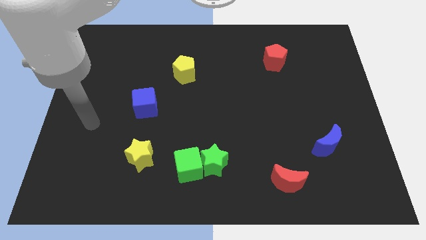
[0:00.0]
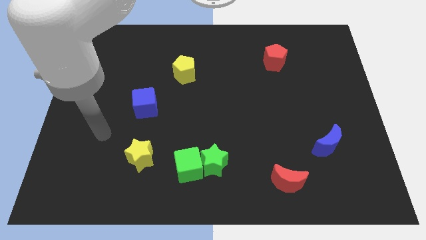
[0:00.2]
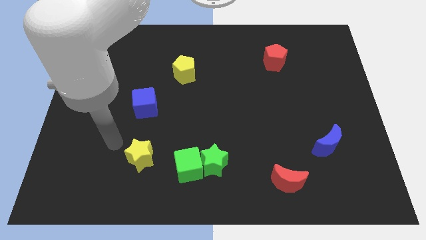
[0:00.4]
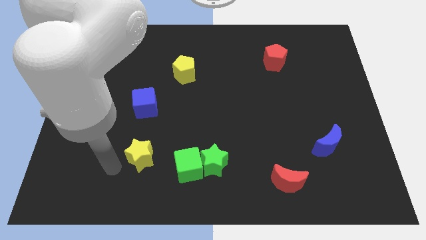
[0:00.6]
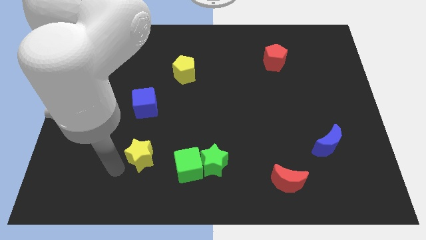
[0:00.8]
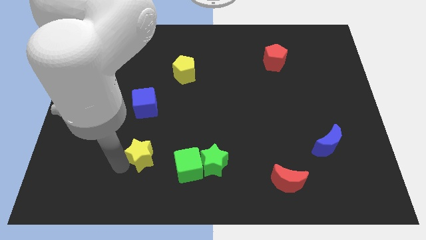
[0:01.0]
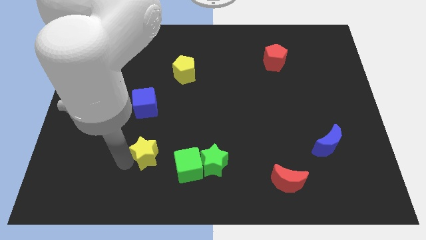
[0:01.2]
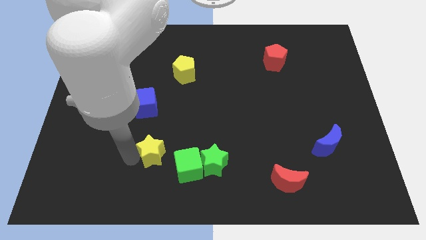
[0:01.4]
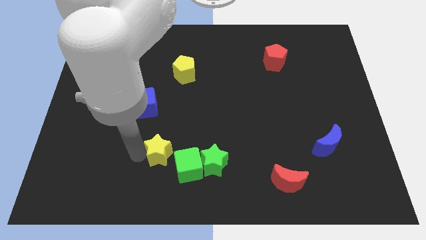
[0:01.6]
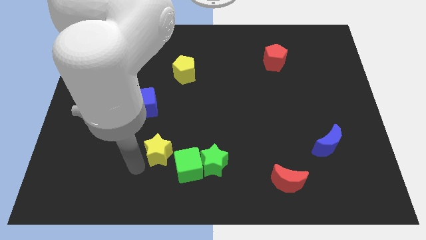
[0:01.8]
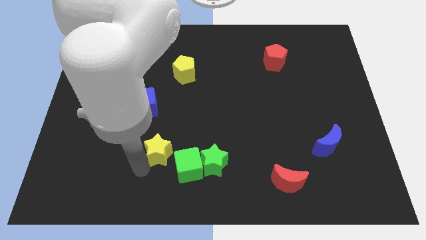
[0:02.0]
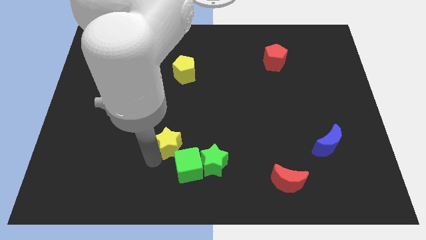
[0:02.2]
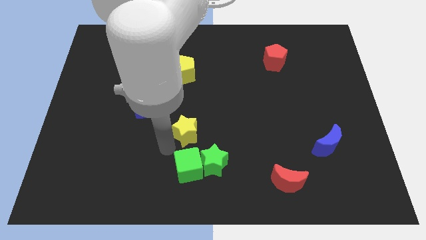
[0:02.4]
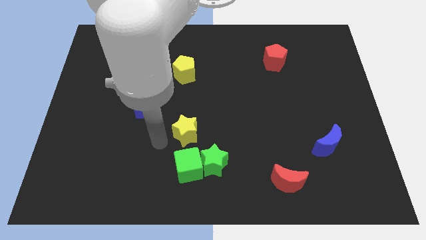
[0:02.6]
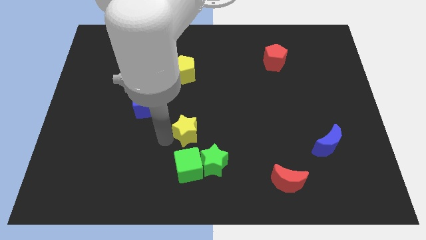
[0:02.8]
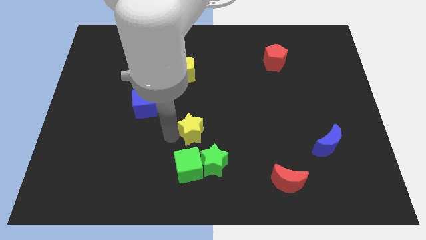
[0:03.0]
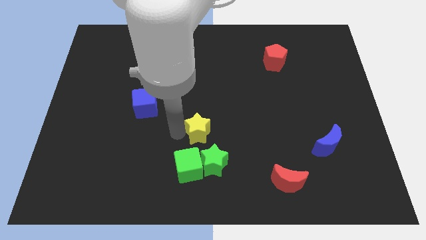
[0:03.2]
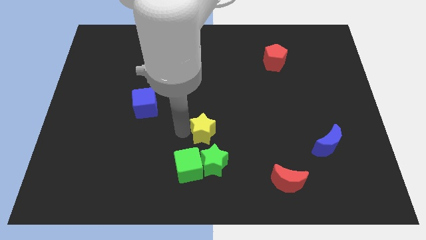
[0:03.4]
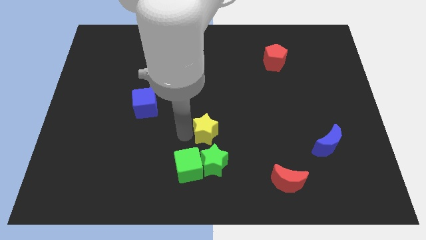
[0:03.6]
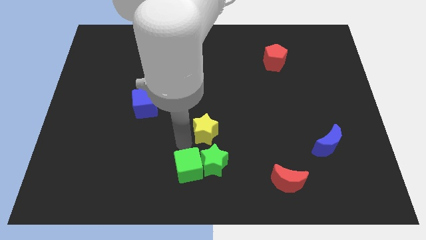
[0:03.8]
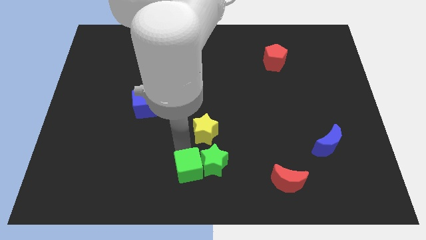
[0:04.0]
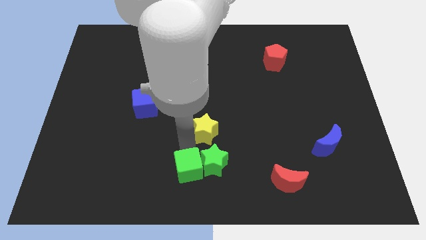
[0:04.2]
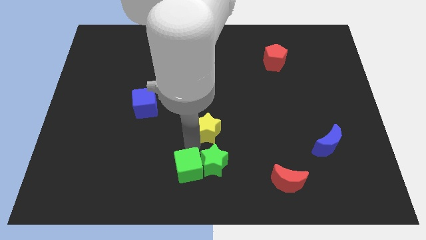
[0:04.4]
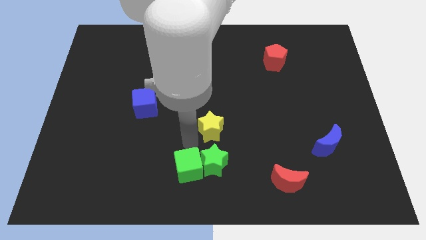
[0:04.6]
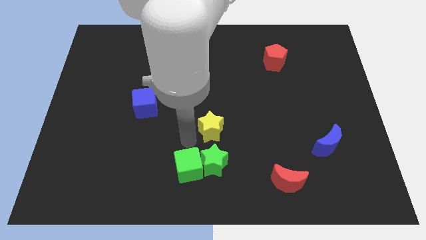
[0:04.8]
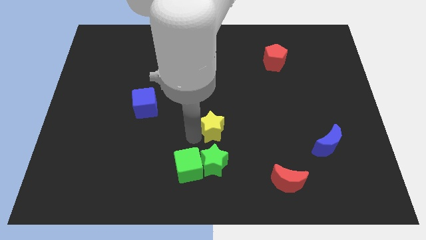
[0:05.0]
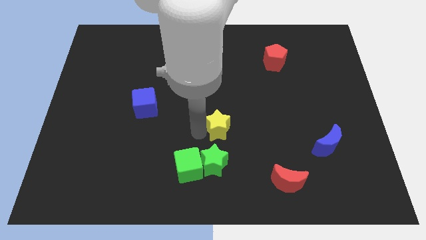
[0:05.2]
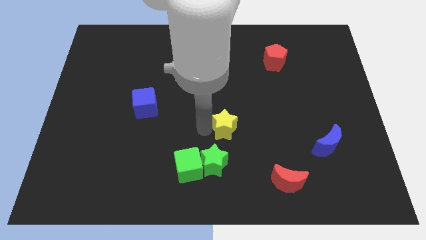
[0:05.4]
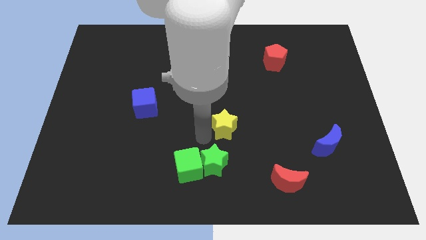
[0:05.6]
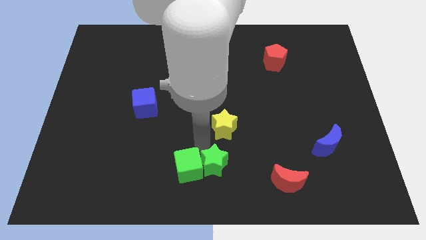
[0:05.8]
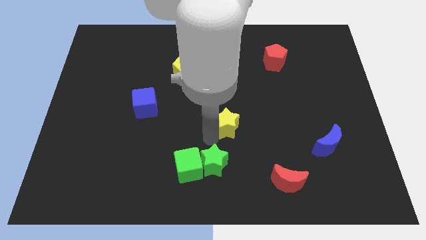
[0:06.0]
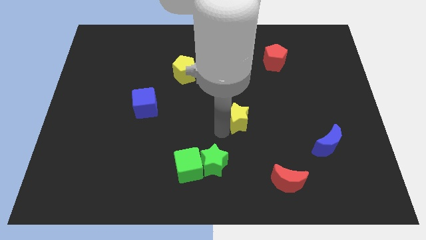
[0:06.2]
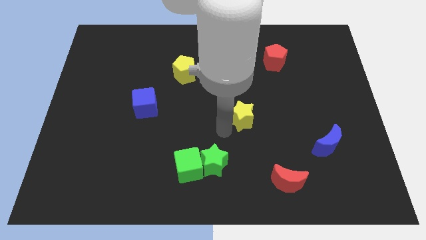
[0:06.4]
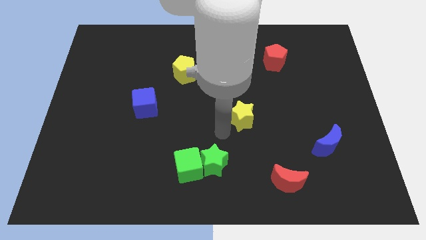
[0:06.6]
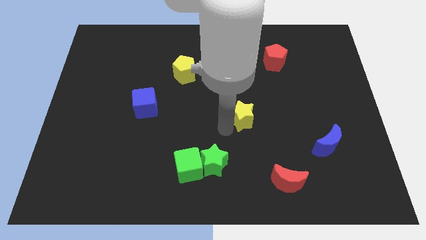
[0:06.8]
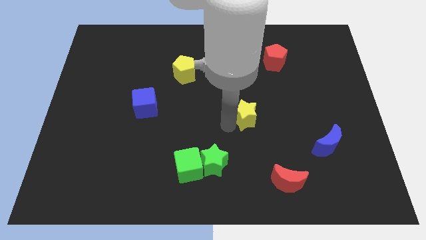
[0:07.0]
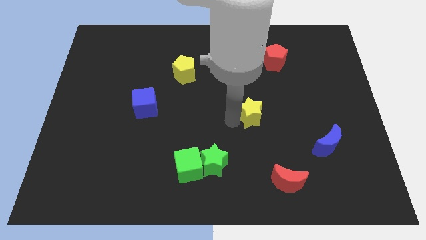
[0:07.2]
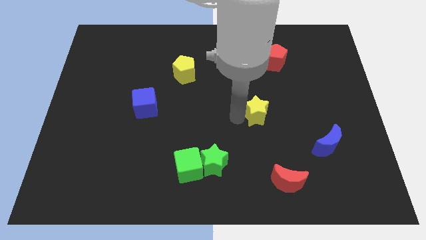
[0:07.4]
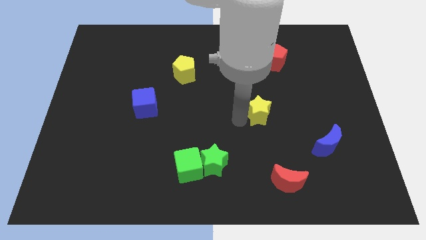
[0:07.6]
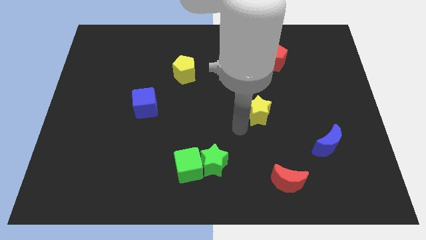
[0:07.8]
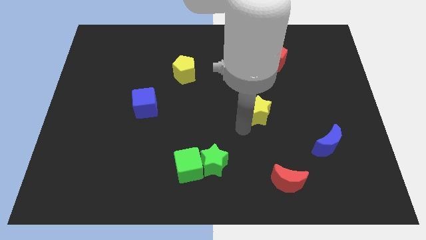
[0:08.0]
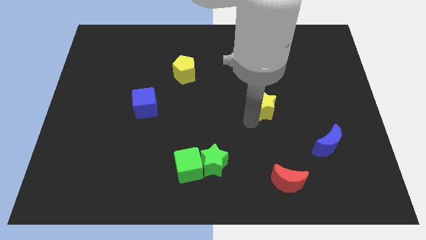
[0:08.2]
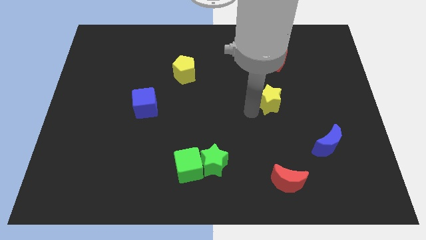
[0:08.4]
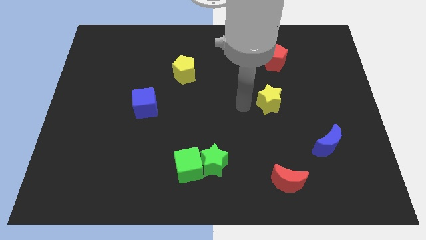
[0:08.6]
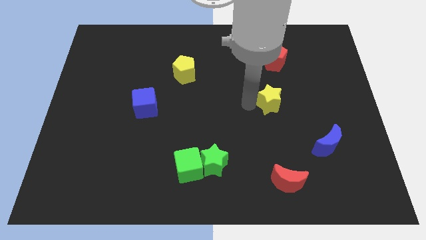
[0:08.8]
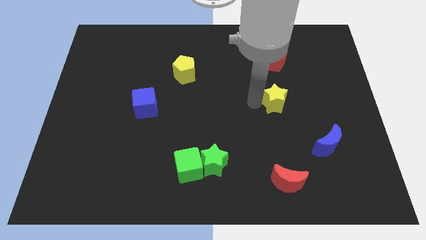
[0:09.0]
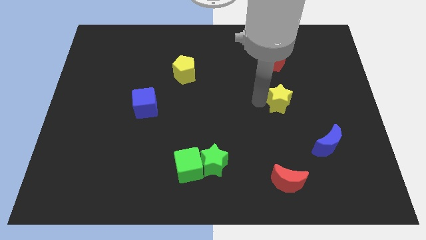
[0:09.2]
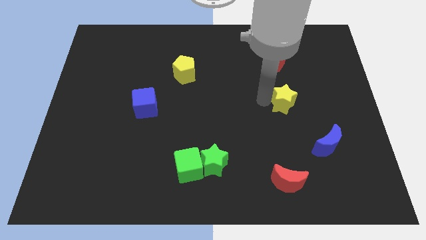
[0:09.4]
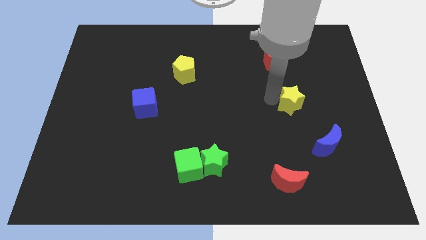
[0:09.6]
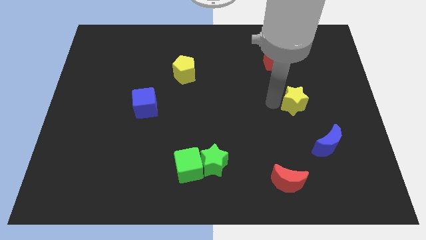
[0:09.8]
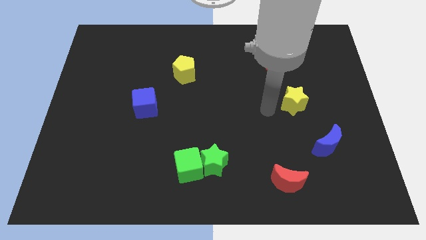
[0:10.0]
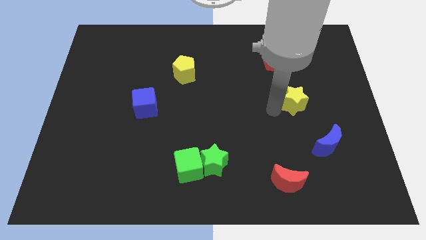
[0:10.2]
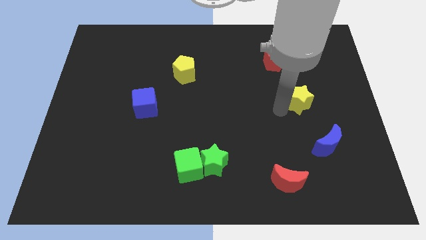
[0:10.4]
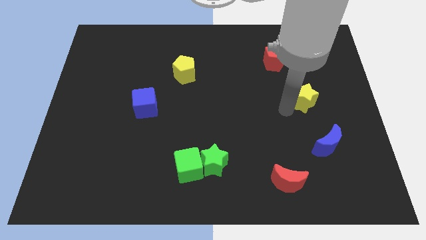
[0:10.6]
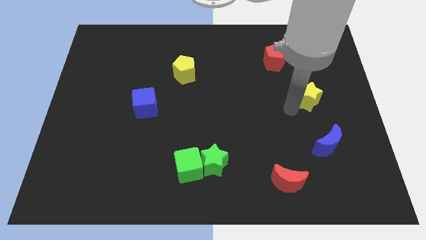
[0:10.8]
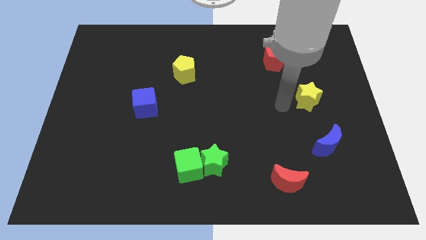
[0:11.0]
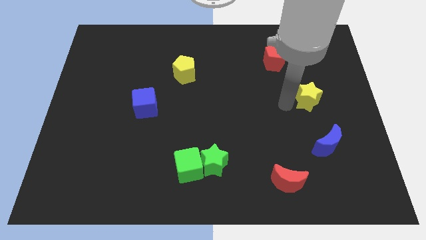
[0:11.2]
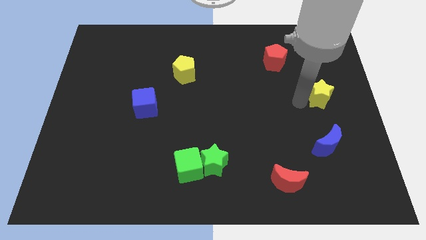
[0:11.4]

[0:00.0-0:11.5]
slide the yellow star to the center right
